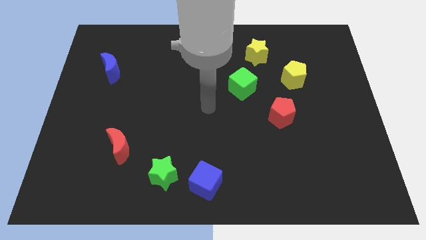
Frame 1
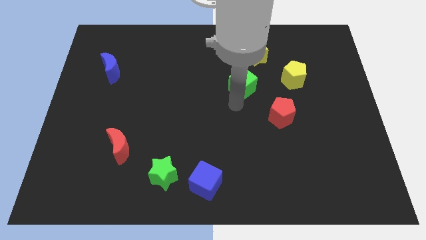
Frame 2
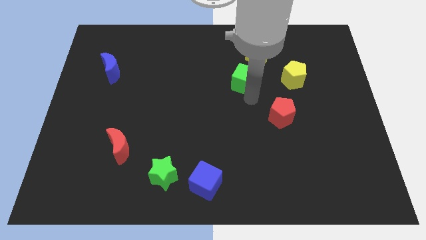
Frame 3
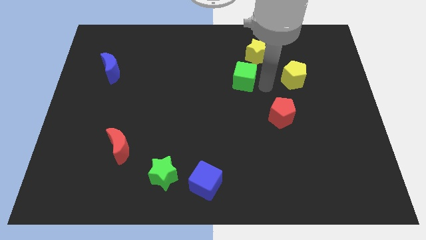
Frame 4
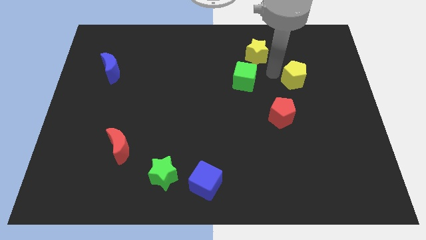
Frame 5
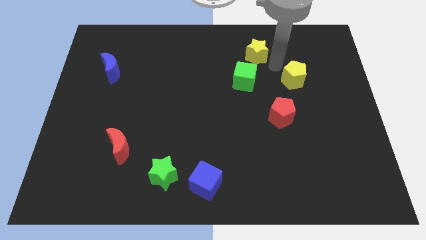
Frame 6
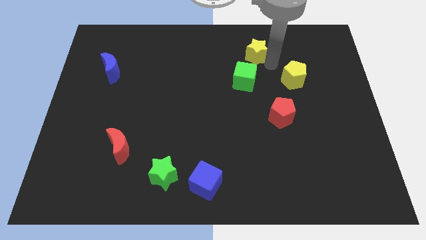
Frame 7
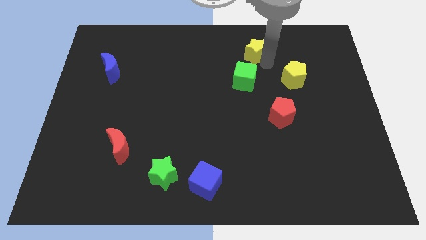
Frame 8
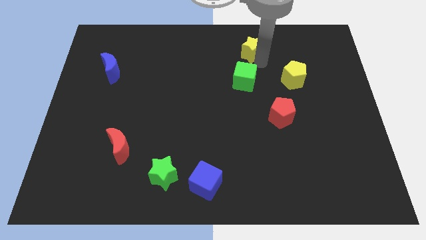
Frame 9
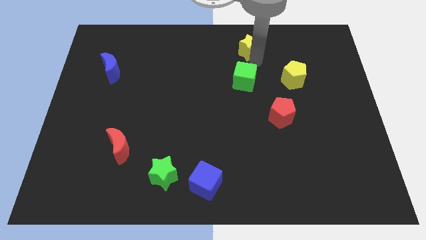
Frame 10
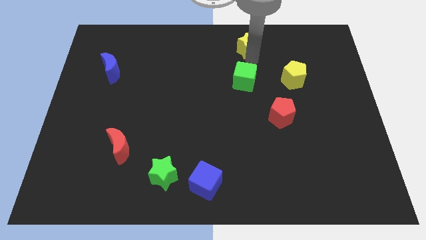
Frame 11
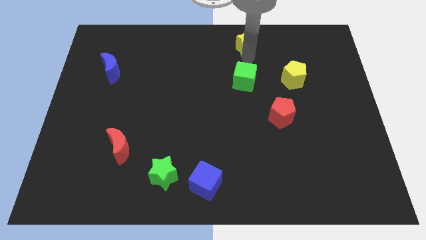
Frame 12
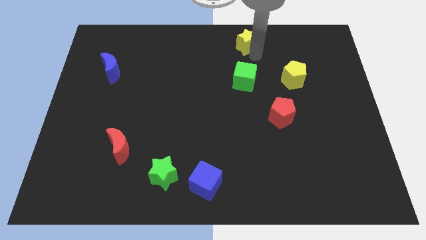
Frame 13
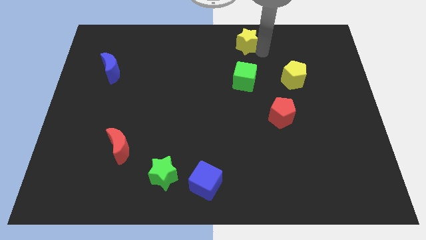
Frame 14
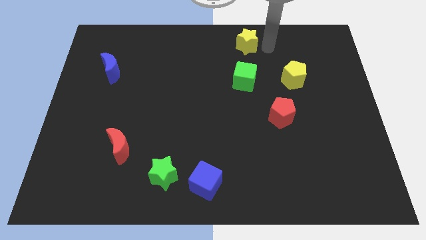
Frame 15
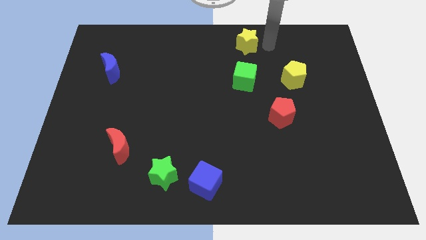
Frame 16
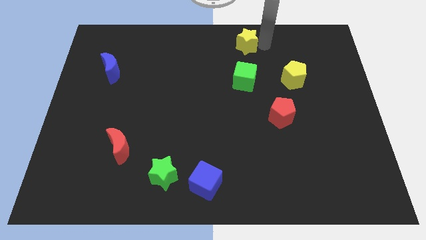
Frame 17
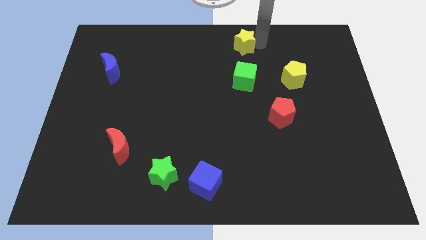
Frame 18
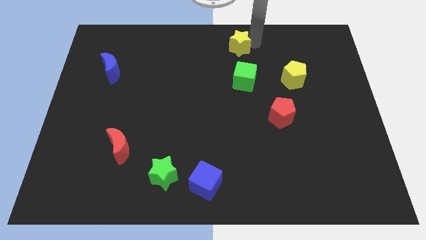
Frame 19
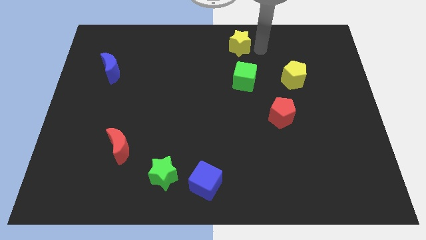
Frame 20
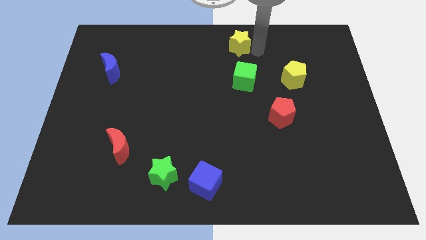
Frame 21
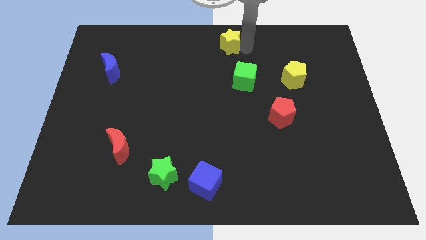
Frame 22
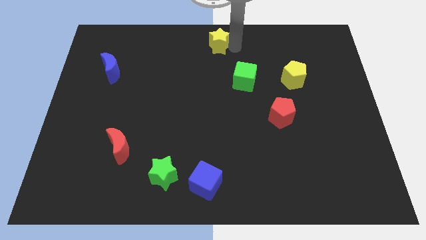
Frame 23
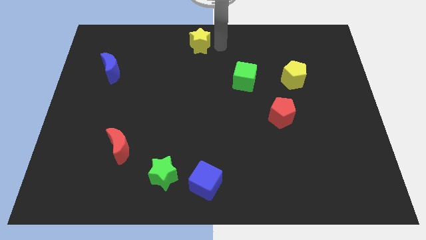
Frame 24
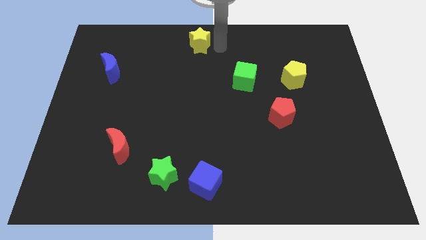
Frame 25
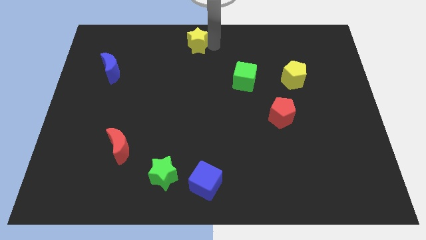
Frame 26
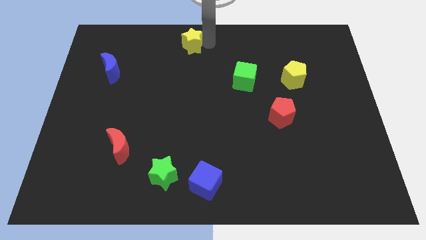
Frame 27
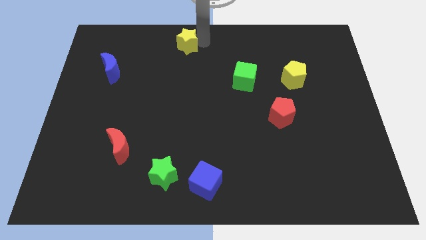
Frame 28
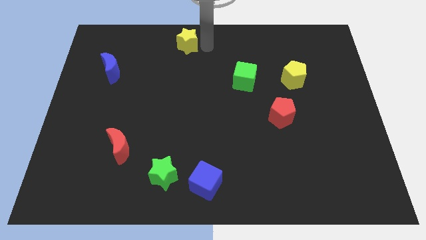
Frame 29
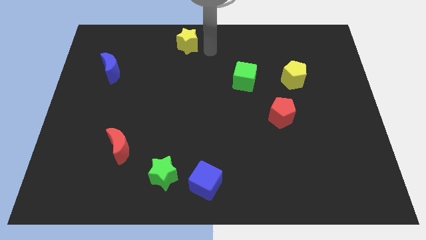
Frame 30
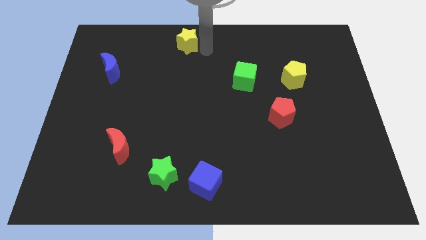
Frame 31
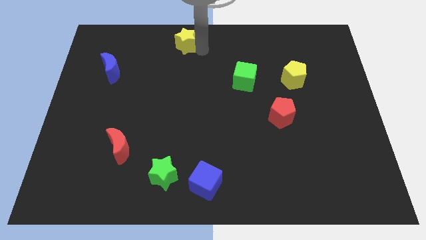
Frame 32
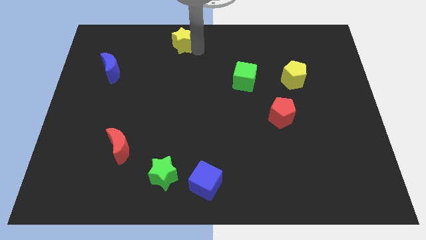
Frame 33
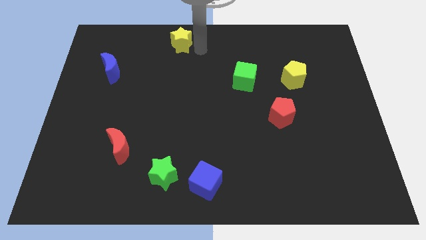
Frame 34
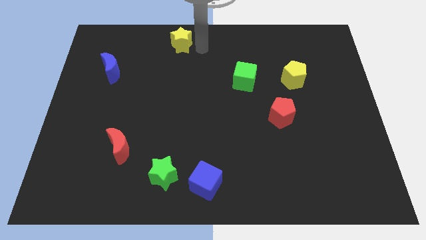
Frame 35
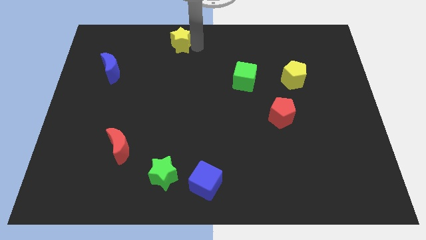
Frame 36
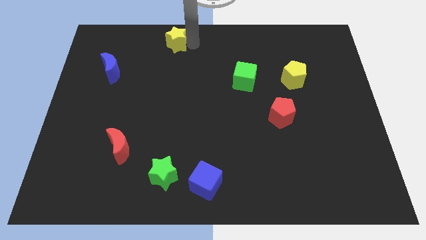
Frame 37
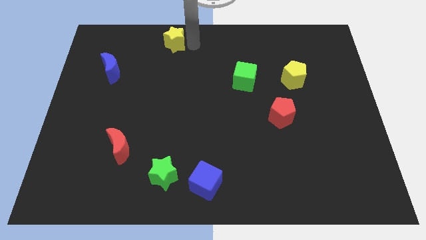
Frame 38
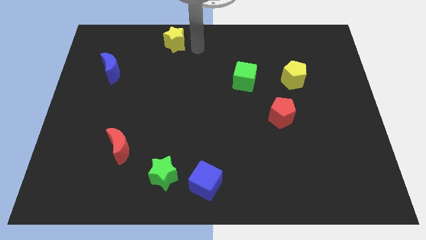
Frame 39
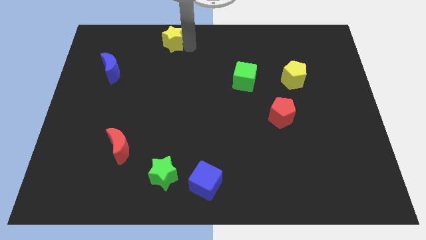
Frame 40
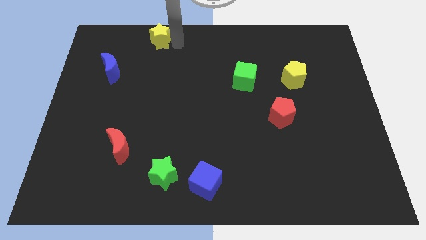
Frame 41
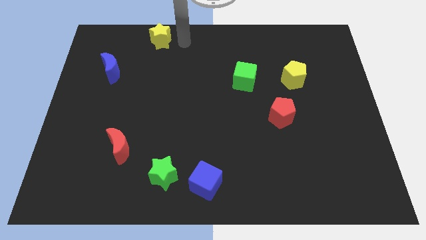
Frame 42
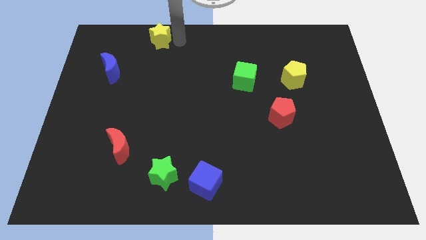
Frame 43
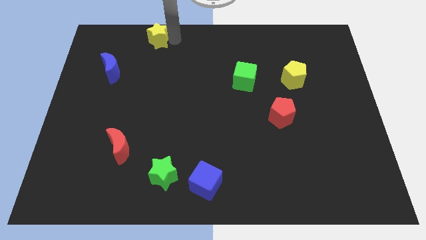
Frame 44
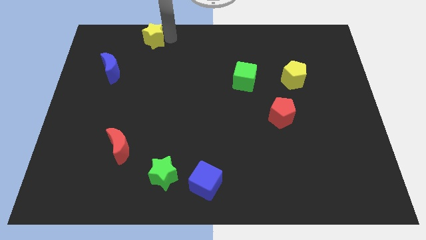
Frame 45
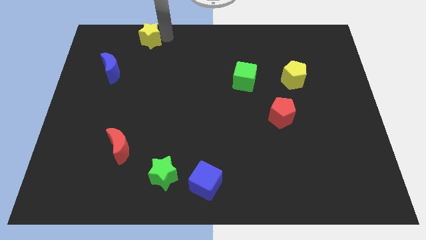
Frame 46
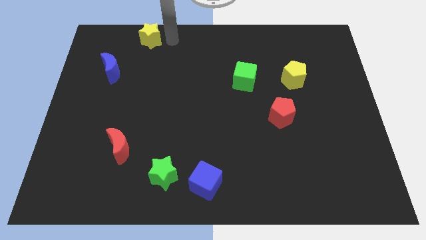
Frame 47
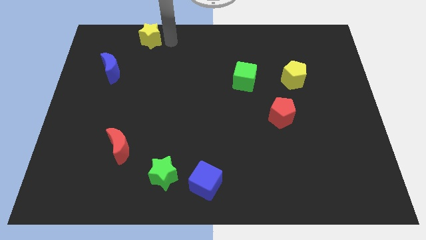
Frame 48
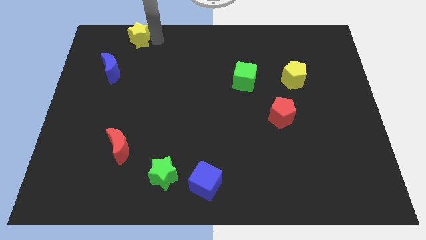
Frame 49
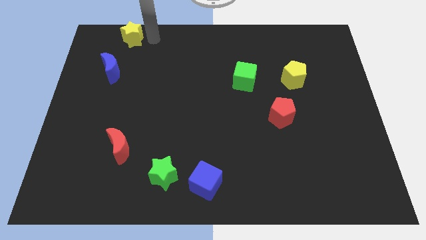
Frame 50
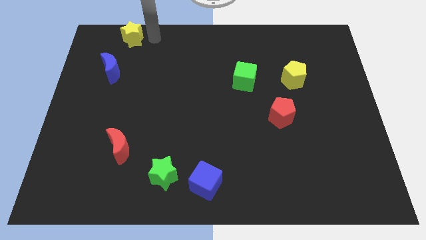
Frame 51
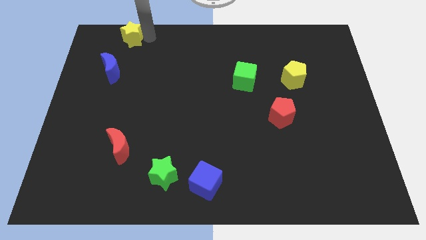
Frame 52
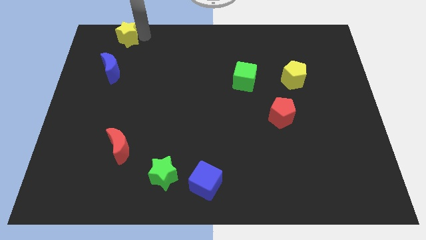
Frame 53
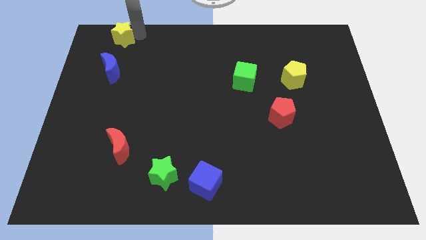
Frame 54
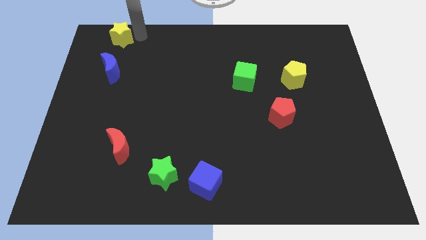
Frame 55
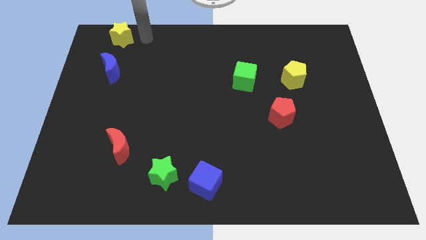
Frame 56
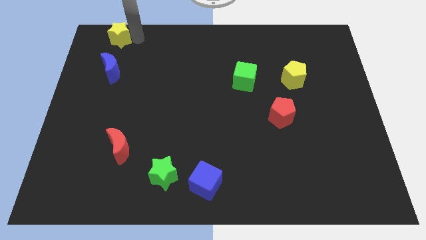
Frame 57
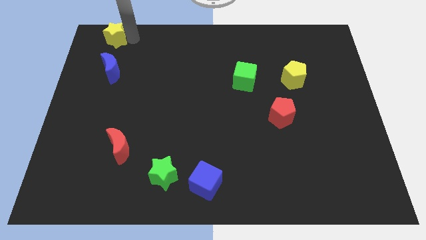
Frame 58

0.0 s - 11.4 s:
put the yellow star to the top left corner

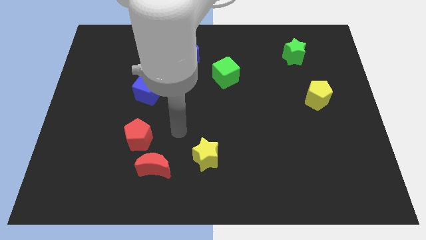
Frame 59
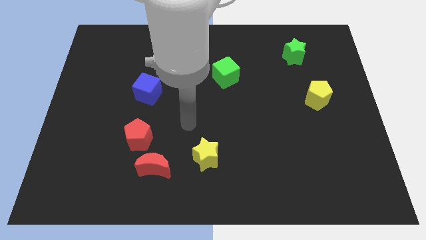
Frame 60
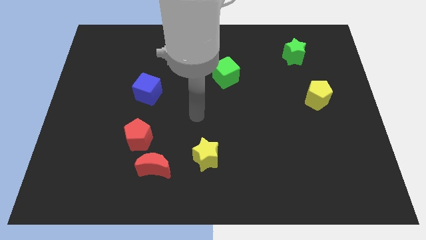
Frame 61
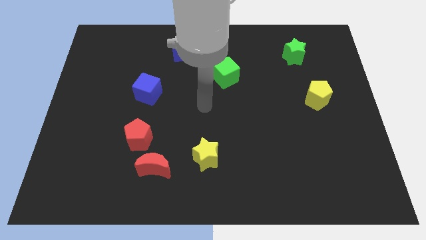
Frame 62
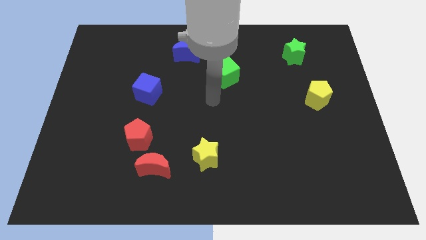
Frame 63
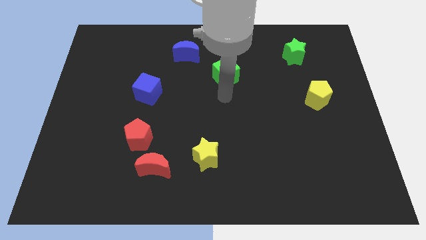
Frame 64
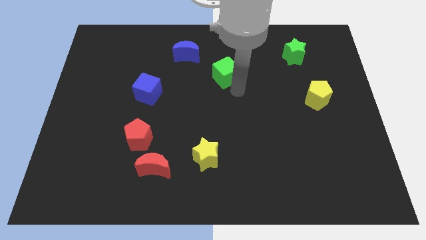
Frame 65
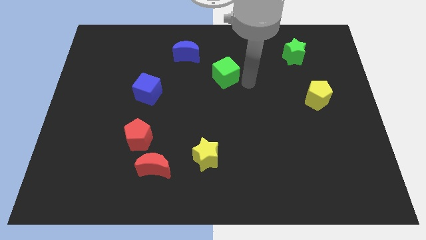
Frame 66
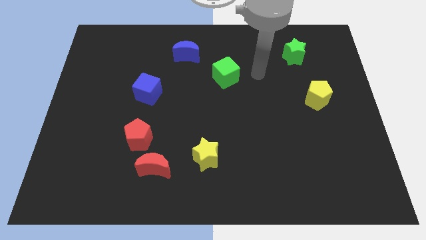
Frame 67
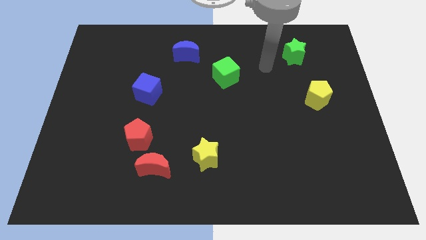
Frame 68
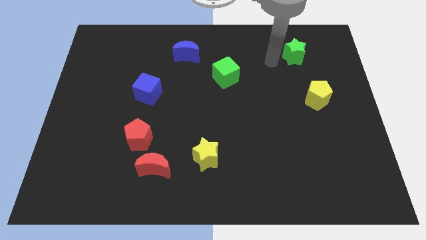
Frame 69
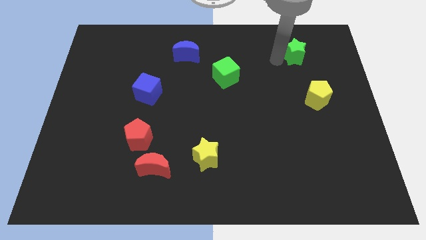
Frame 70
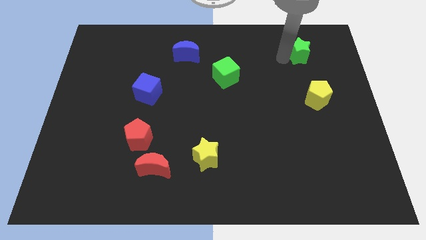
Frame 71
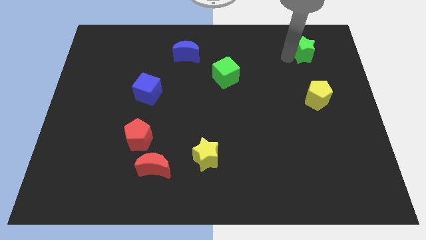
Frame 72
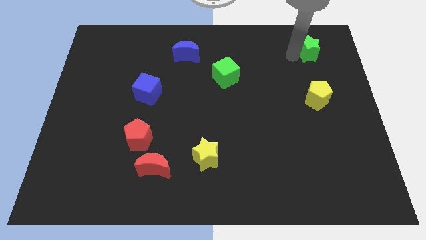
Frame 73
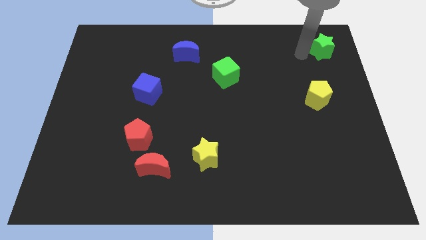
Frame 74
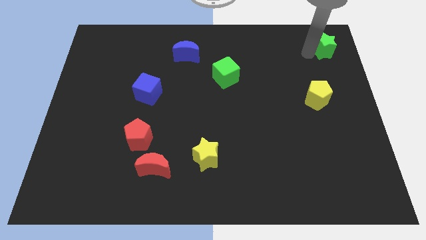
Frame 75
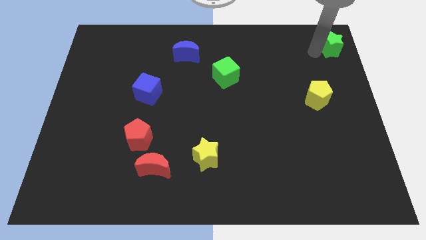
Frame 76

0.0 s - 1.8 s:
move the green star to the upper right corner
